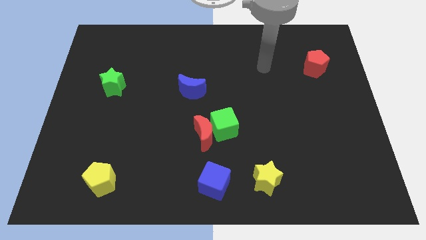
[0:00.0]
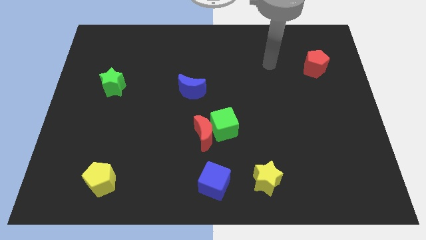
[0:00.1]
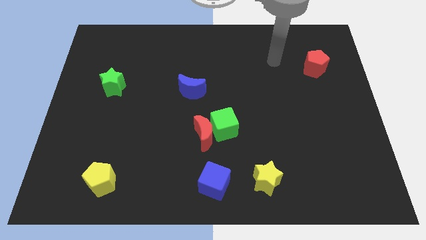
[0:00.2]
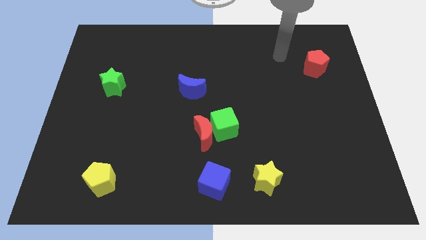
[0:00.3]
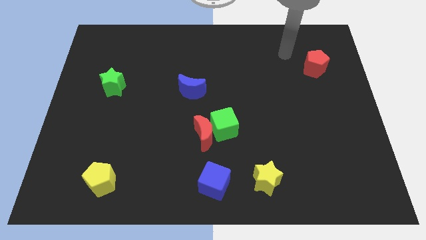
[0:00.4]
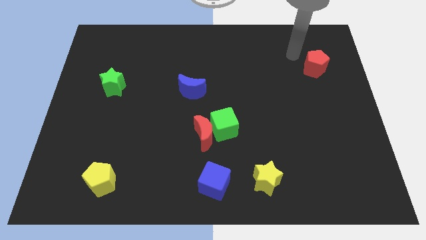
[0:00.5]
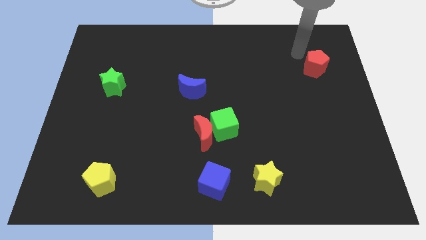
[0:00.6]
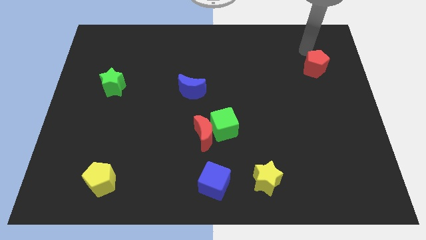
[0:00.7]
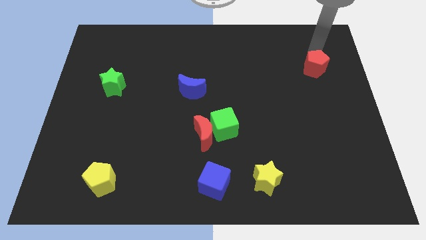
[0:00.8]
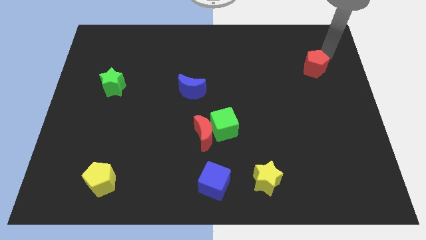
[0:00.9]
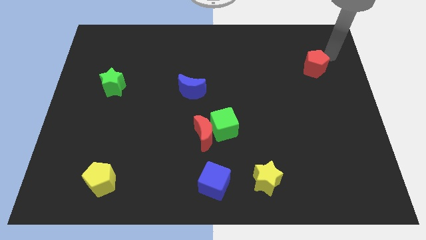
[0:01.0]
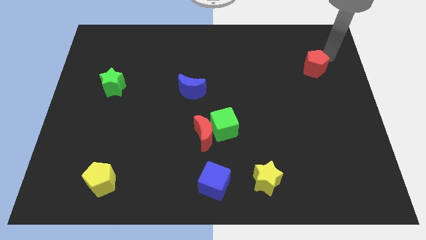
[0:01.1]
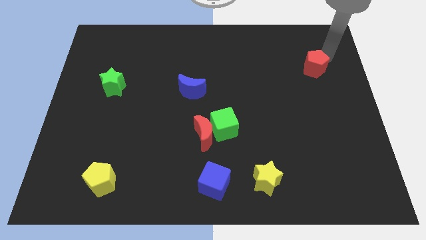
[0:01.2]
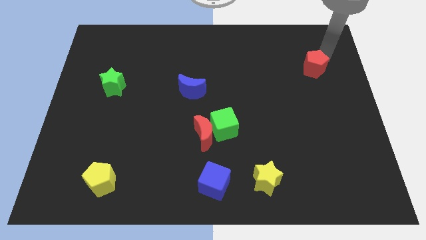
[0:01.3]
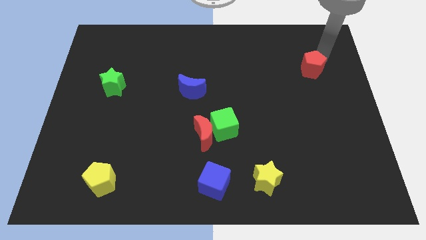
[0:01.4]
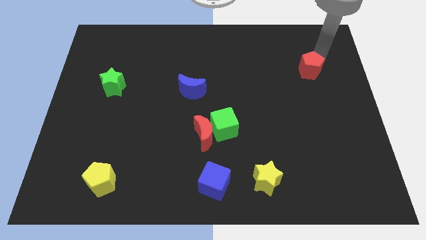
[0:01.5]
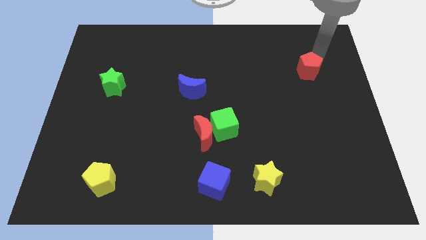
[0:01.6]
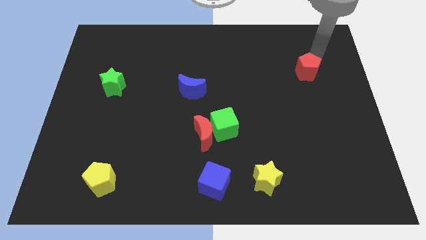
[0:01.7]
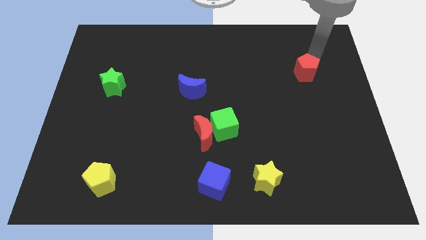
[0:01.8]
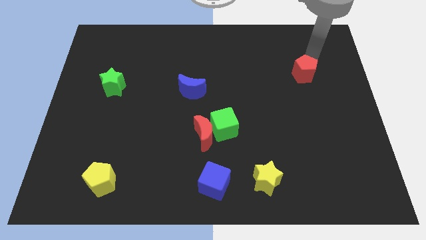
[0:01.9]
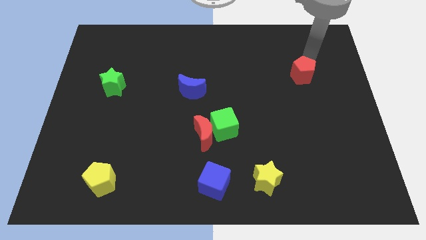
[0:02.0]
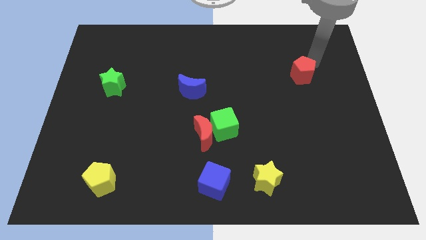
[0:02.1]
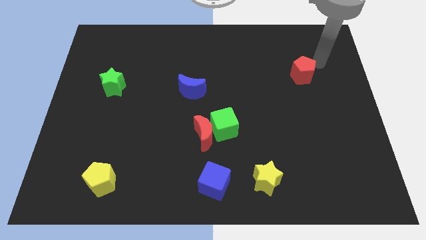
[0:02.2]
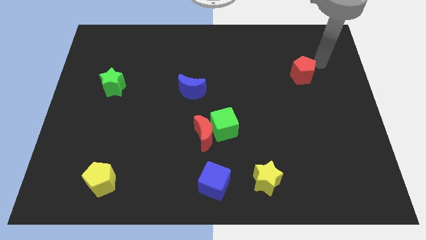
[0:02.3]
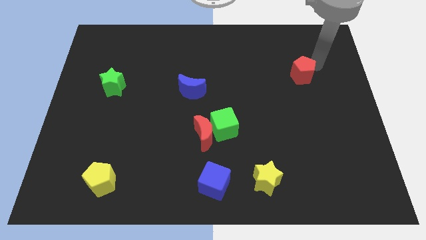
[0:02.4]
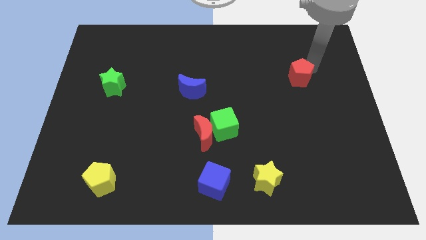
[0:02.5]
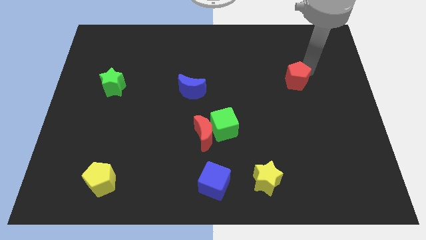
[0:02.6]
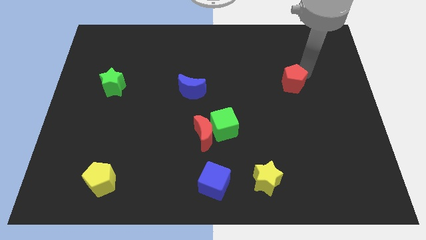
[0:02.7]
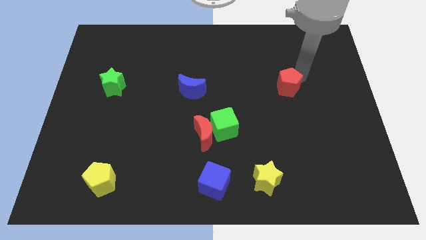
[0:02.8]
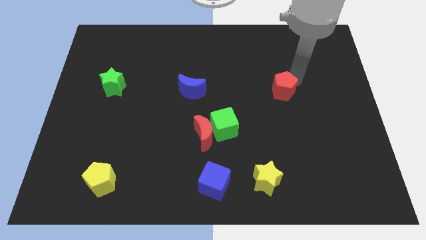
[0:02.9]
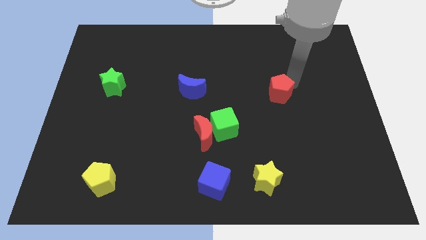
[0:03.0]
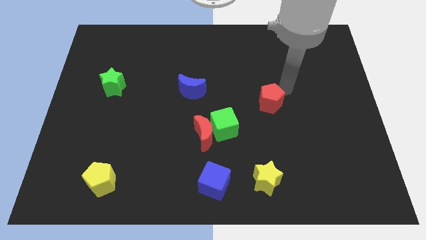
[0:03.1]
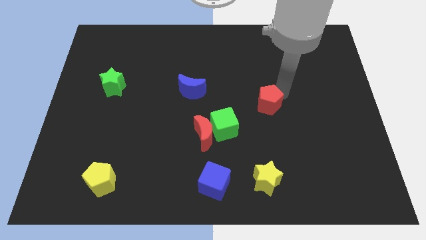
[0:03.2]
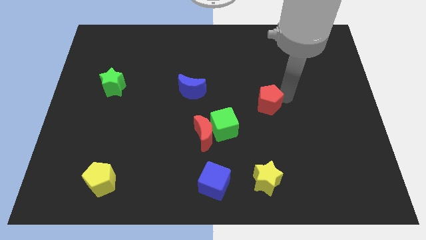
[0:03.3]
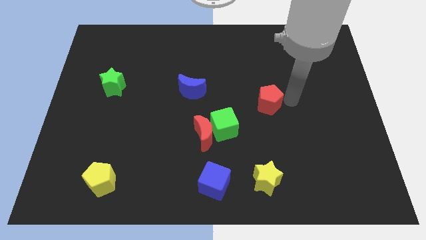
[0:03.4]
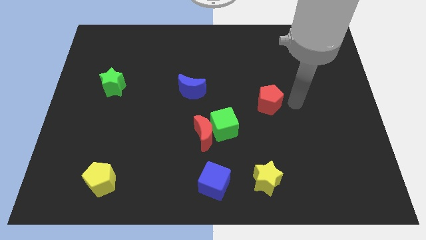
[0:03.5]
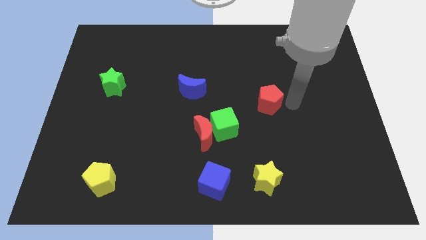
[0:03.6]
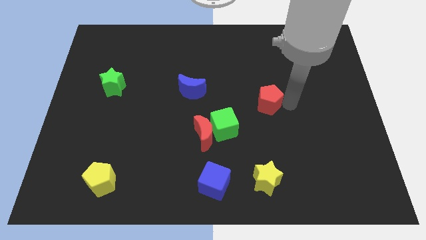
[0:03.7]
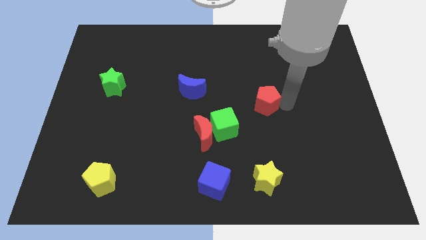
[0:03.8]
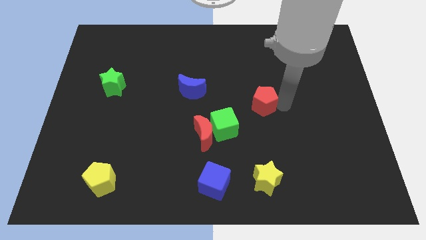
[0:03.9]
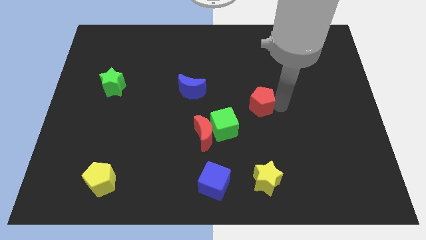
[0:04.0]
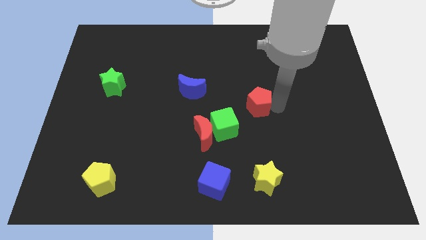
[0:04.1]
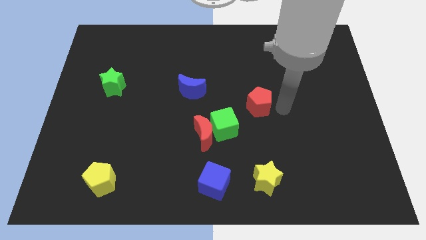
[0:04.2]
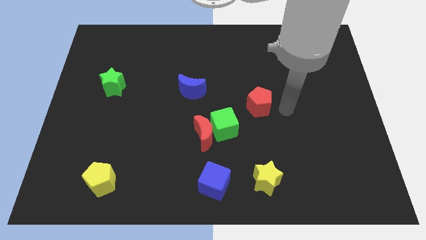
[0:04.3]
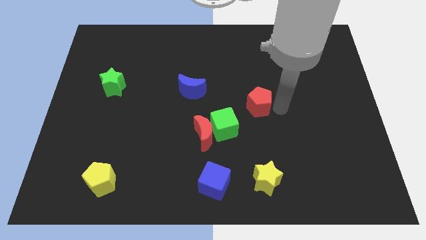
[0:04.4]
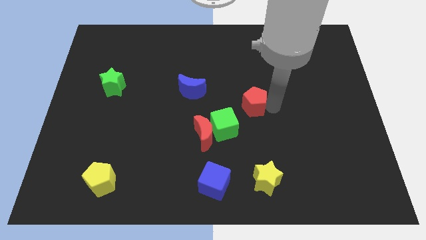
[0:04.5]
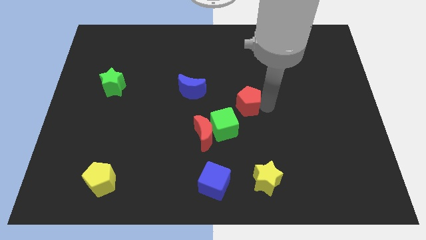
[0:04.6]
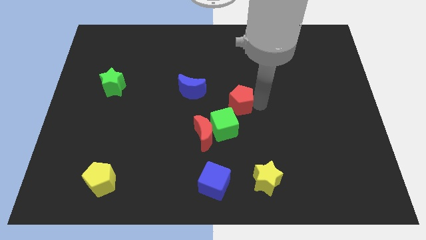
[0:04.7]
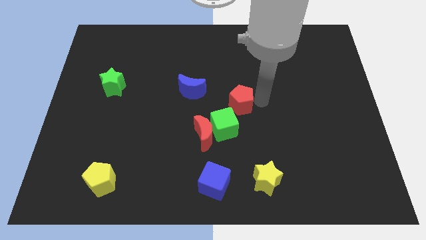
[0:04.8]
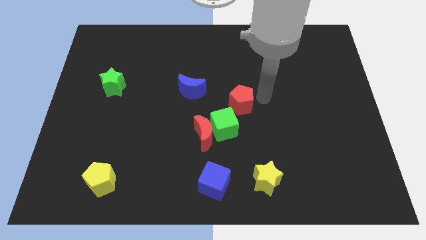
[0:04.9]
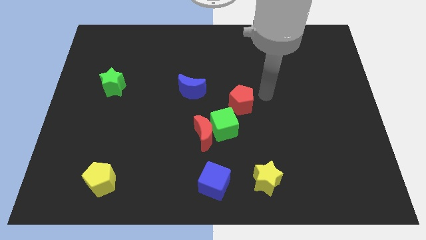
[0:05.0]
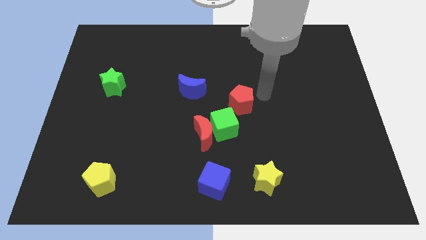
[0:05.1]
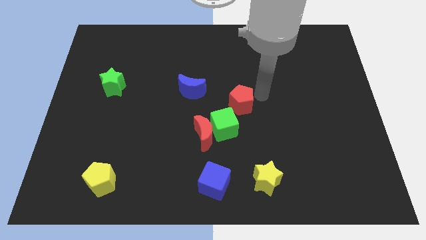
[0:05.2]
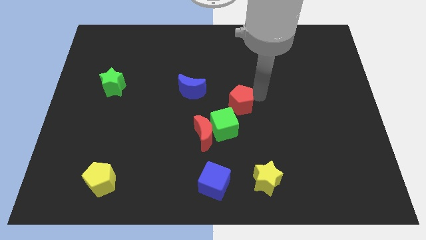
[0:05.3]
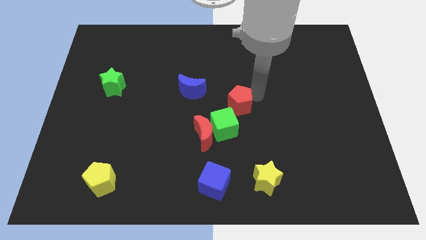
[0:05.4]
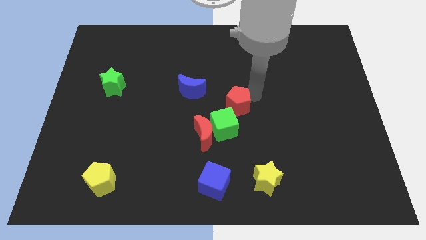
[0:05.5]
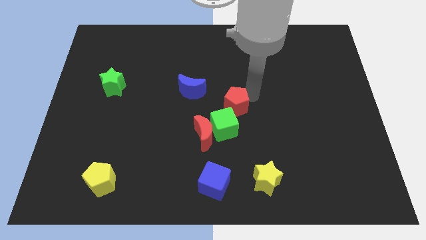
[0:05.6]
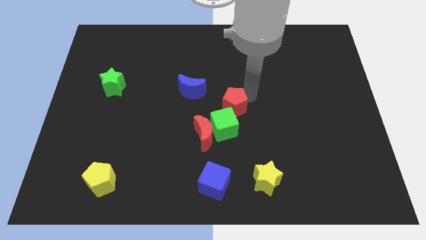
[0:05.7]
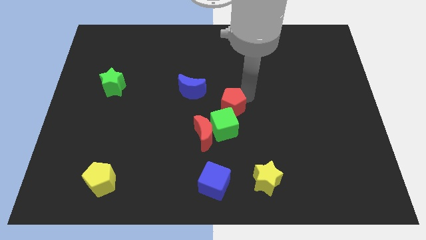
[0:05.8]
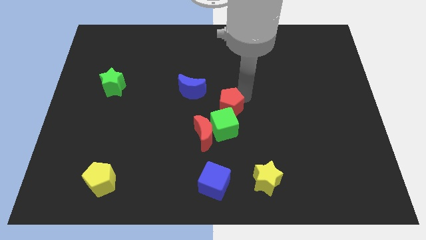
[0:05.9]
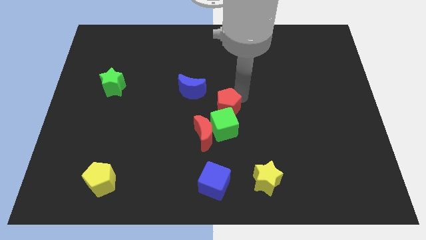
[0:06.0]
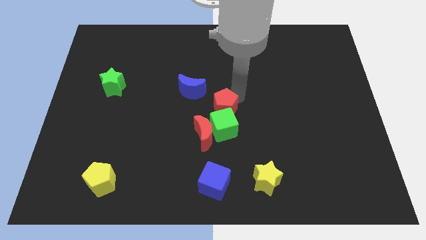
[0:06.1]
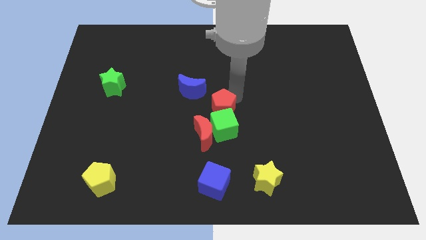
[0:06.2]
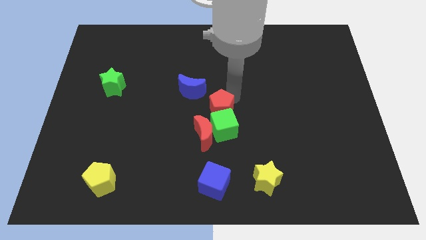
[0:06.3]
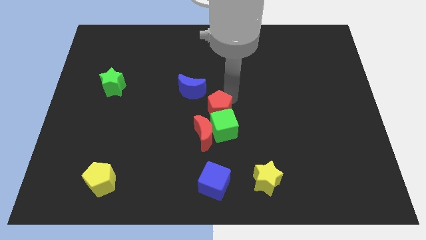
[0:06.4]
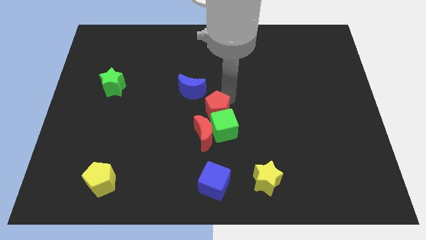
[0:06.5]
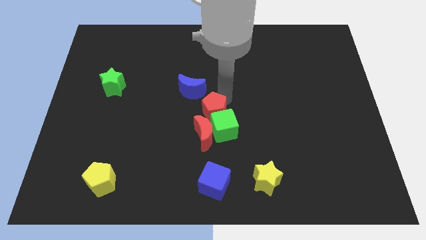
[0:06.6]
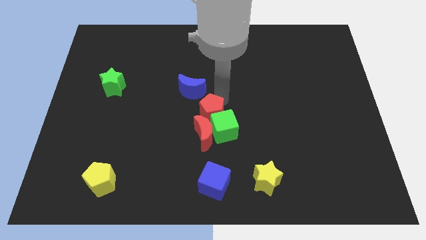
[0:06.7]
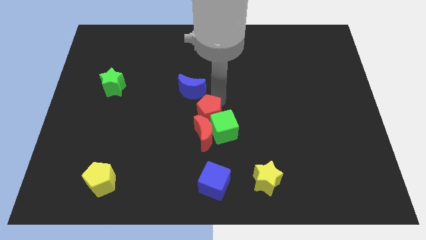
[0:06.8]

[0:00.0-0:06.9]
slide the red pentagon close to the red moon
